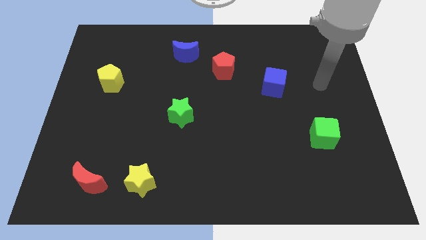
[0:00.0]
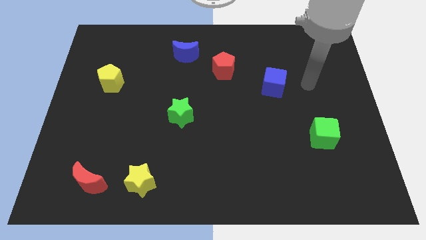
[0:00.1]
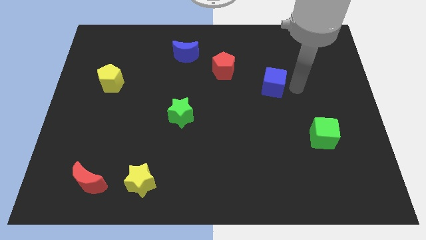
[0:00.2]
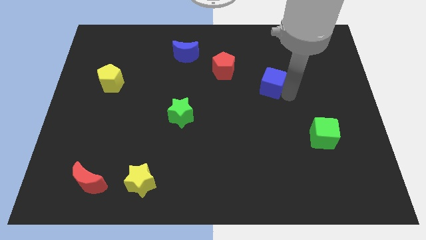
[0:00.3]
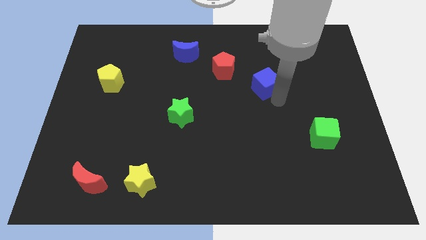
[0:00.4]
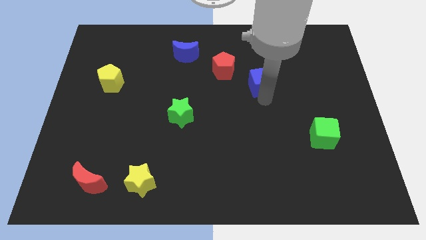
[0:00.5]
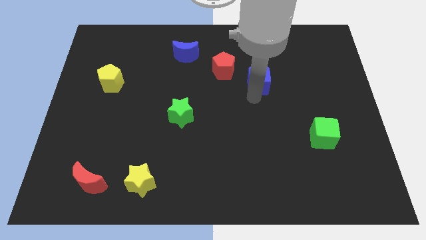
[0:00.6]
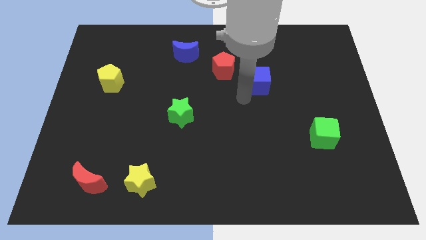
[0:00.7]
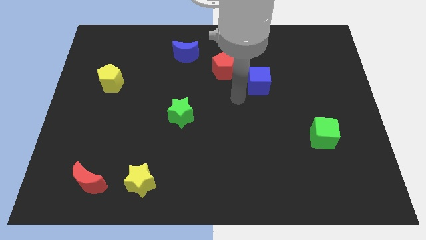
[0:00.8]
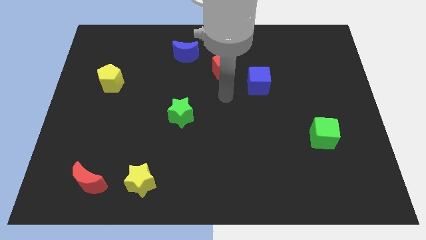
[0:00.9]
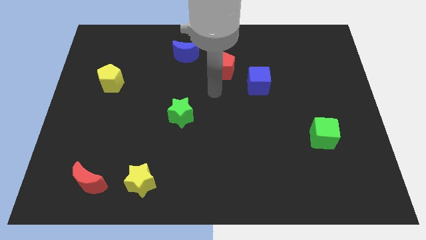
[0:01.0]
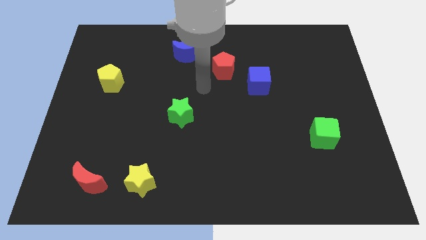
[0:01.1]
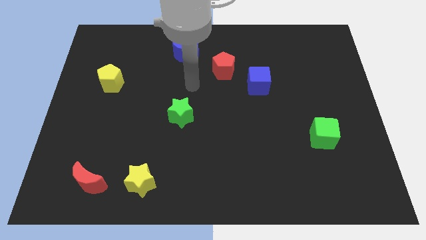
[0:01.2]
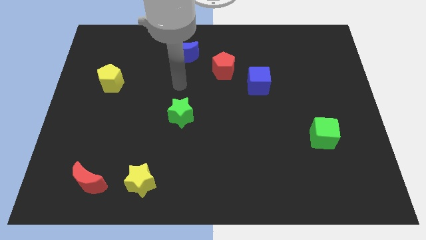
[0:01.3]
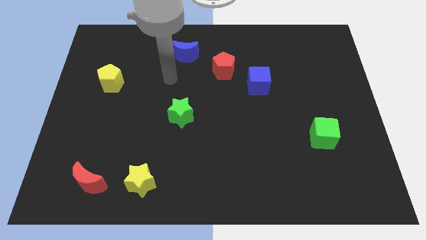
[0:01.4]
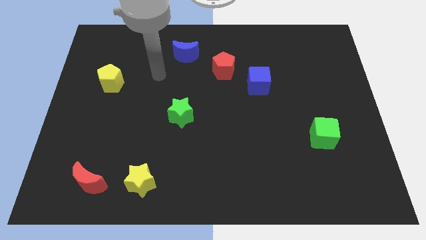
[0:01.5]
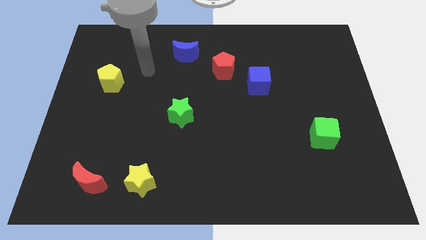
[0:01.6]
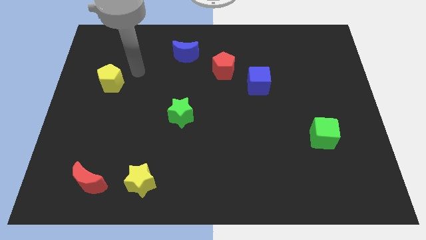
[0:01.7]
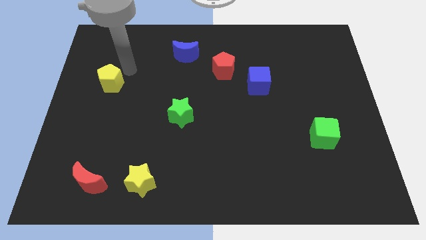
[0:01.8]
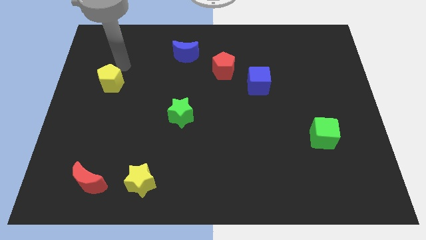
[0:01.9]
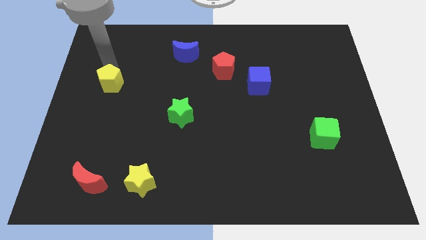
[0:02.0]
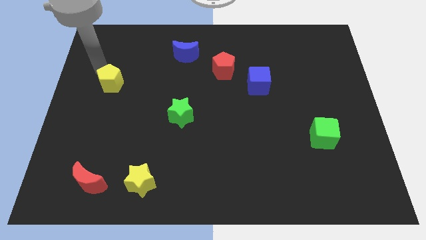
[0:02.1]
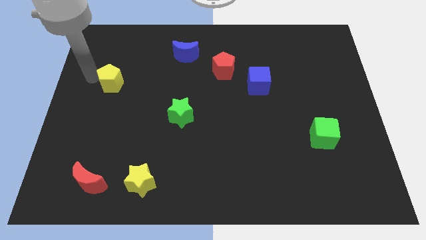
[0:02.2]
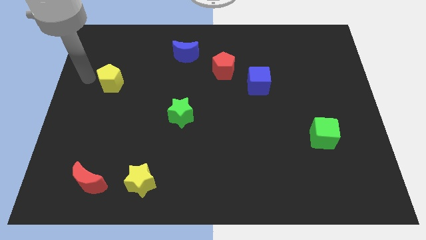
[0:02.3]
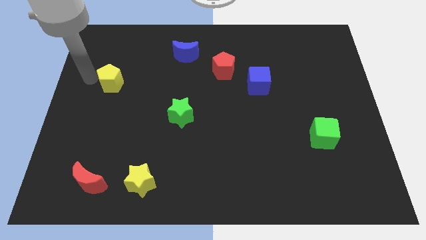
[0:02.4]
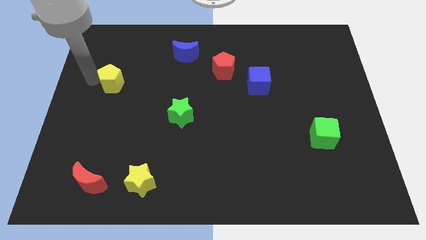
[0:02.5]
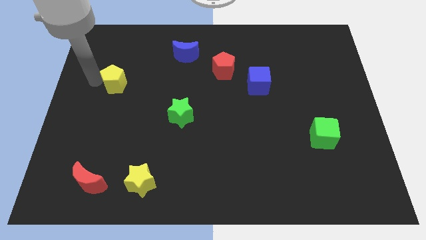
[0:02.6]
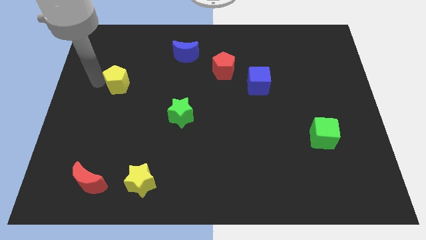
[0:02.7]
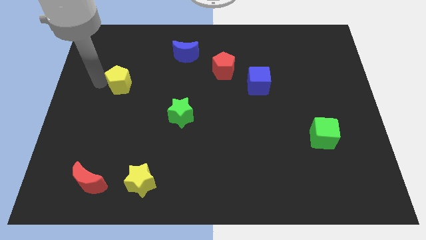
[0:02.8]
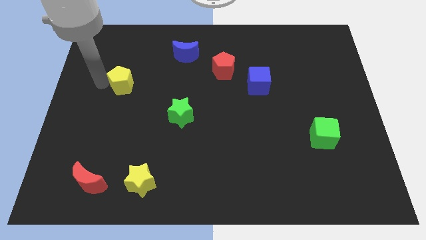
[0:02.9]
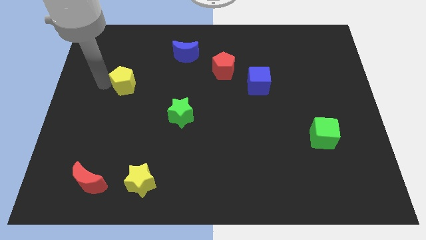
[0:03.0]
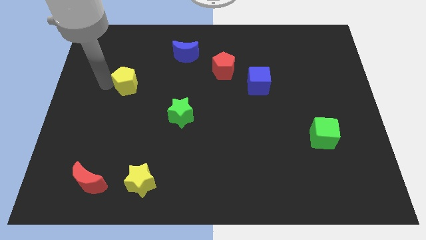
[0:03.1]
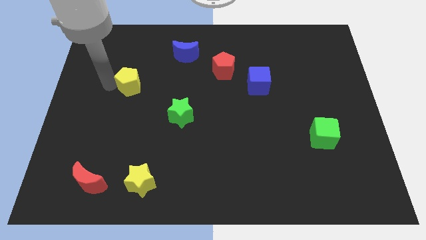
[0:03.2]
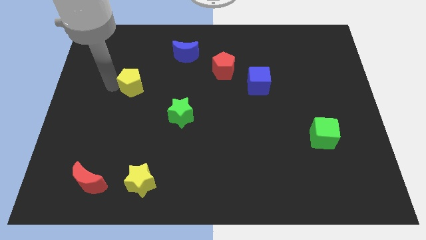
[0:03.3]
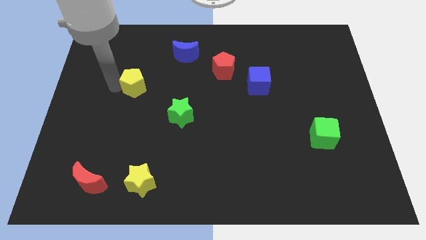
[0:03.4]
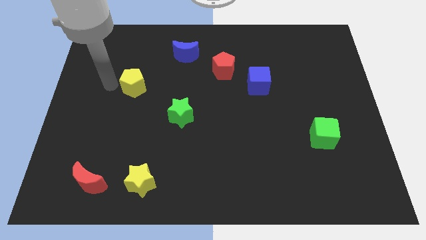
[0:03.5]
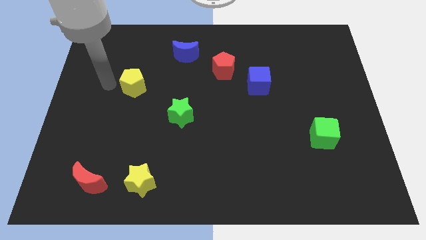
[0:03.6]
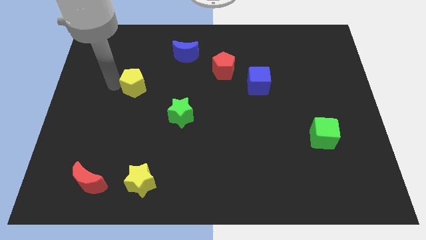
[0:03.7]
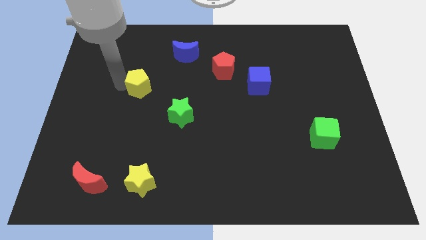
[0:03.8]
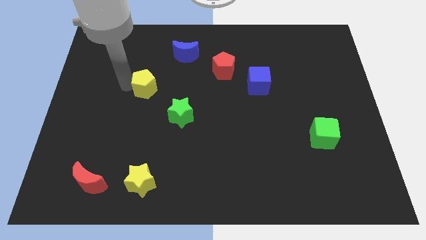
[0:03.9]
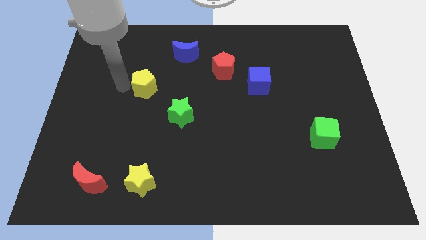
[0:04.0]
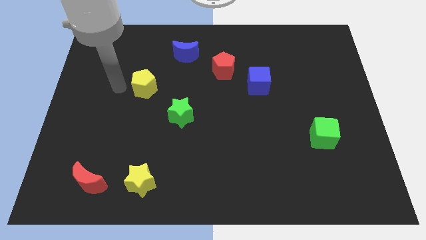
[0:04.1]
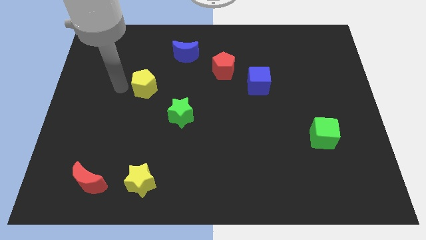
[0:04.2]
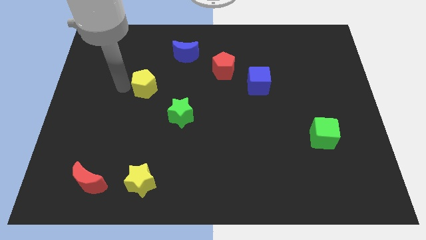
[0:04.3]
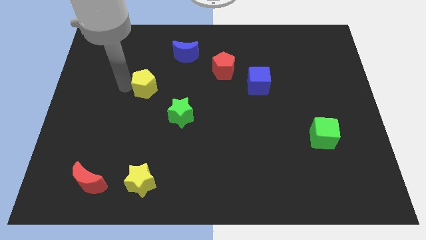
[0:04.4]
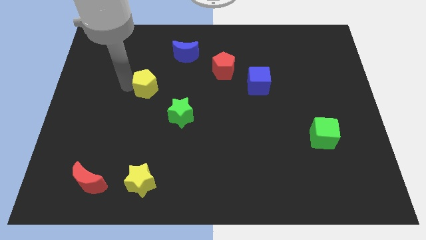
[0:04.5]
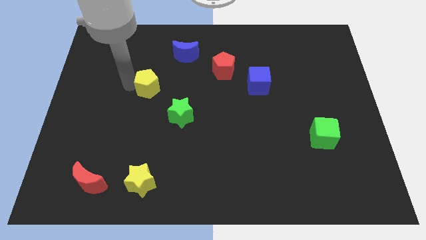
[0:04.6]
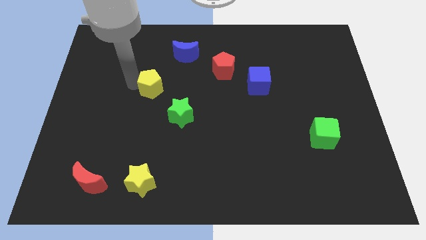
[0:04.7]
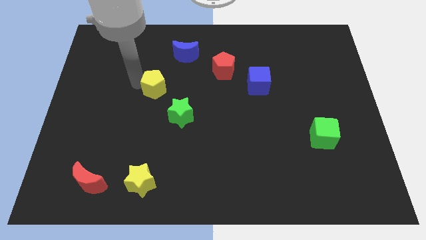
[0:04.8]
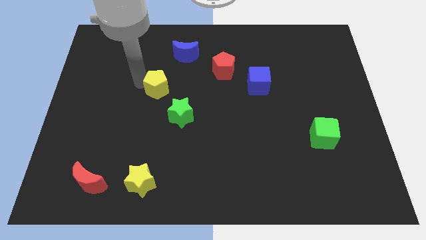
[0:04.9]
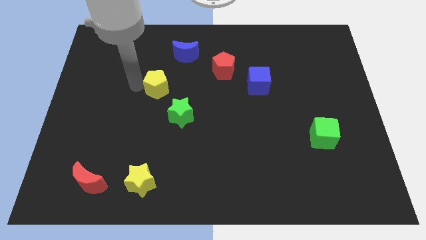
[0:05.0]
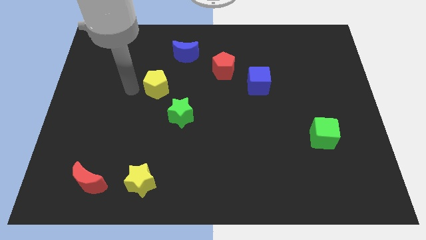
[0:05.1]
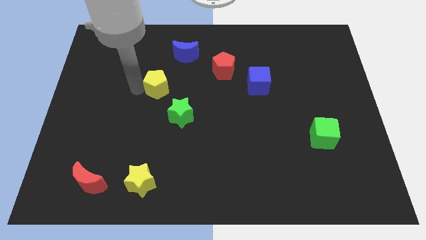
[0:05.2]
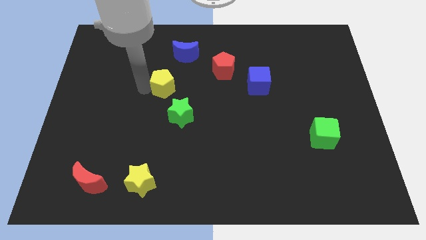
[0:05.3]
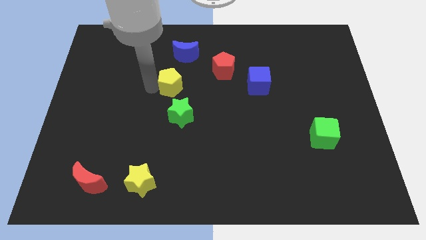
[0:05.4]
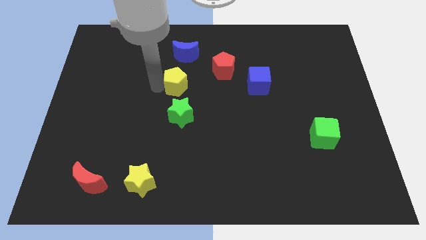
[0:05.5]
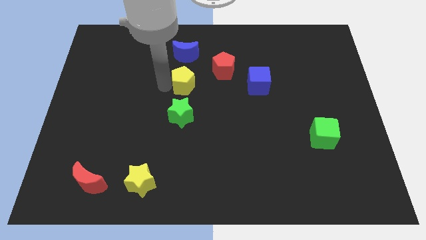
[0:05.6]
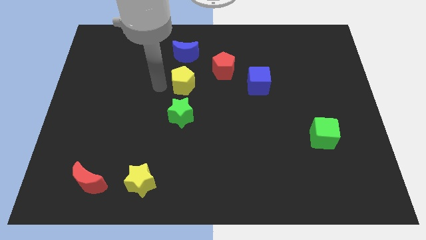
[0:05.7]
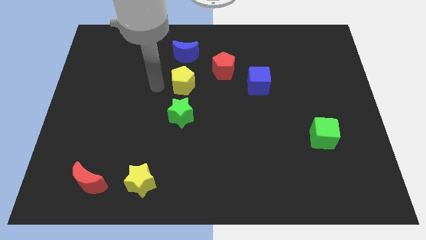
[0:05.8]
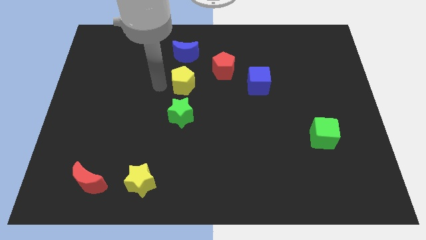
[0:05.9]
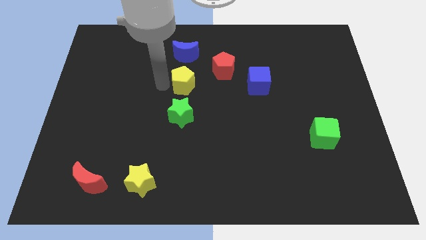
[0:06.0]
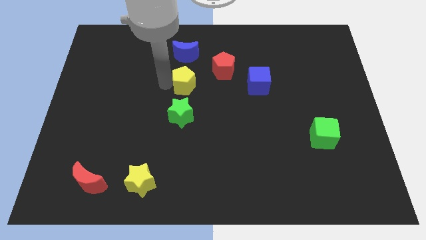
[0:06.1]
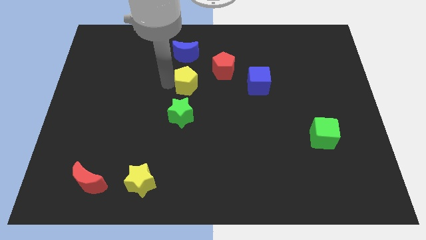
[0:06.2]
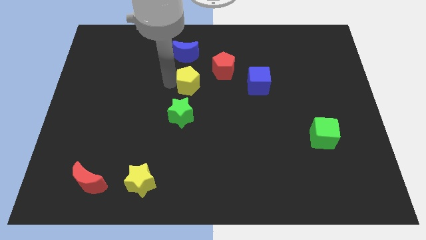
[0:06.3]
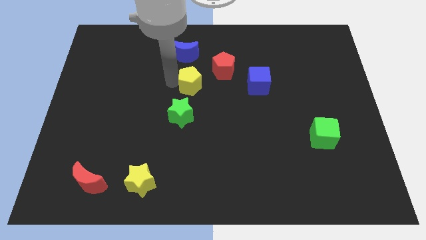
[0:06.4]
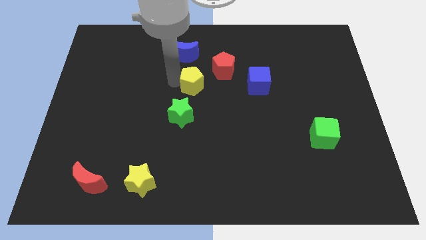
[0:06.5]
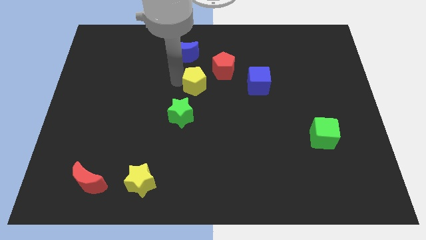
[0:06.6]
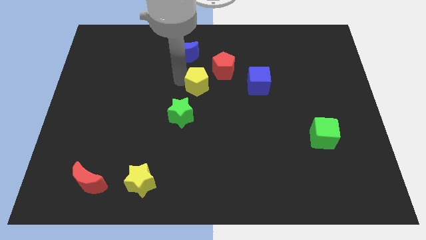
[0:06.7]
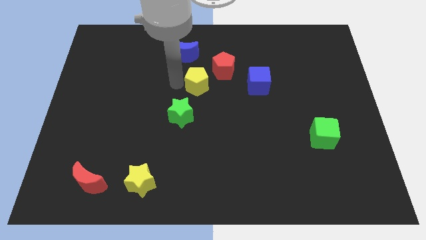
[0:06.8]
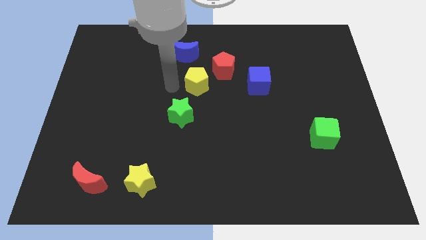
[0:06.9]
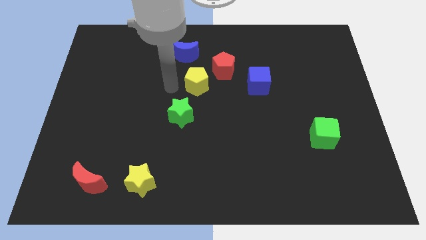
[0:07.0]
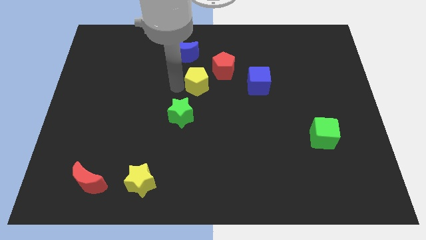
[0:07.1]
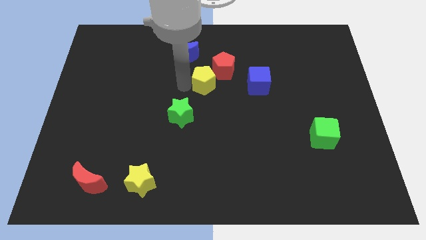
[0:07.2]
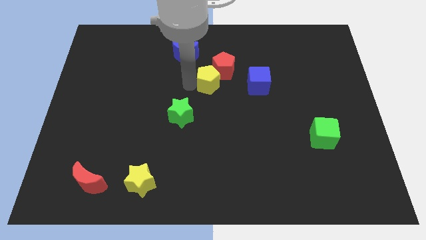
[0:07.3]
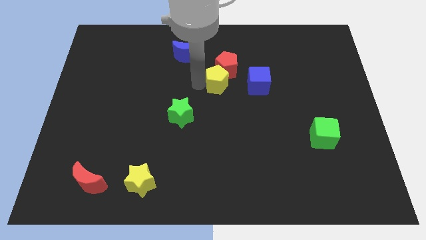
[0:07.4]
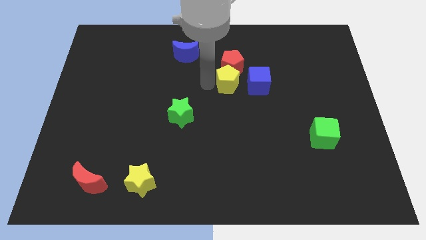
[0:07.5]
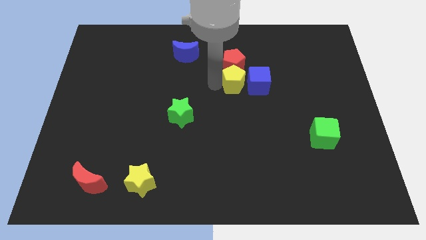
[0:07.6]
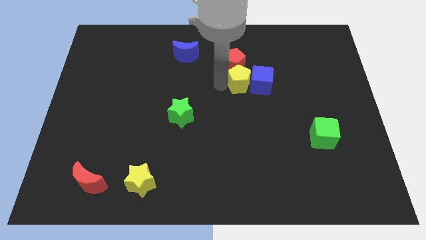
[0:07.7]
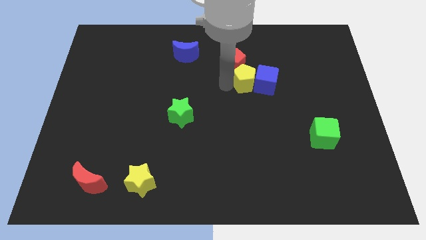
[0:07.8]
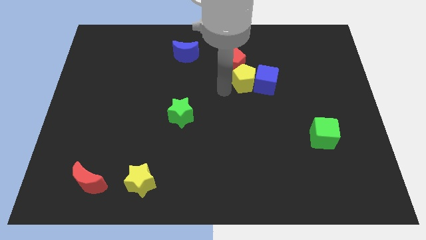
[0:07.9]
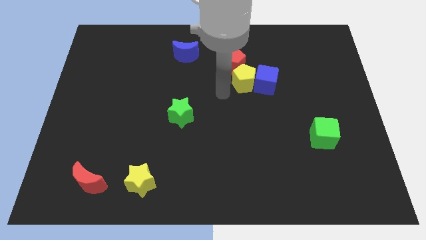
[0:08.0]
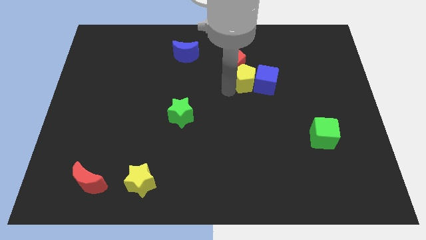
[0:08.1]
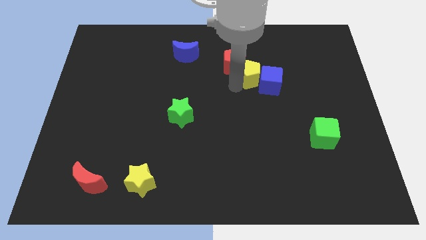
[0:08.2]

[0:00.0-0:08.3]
slide the yellow pentagon right of the red pentagon

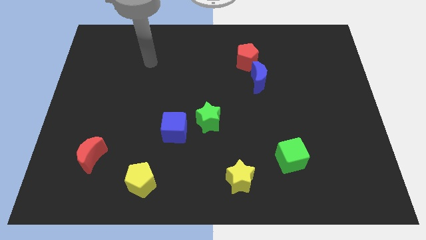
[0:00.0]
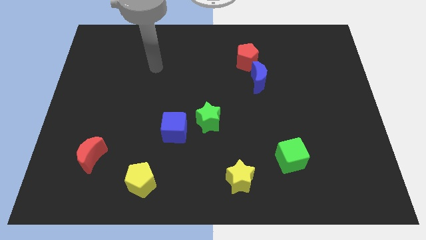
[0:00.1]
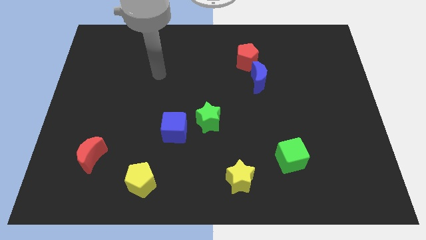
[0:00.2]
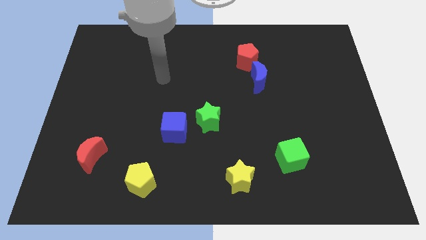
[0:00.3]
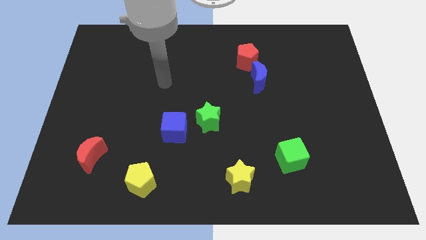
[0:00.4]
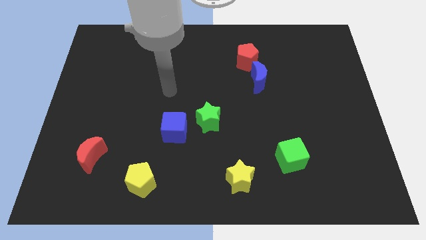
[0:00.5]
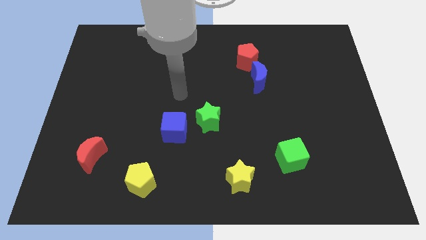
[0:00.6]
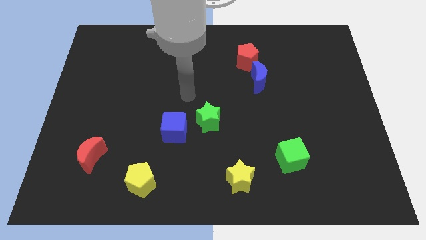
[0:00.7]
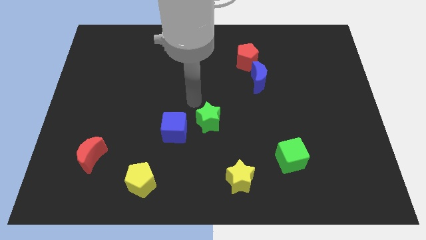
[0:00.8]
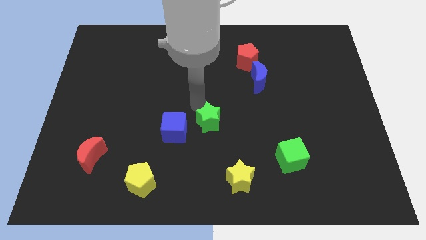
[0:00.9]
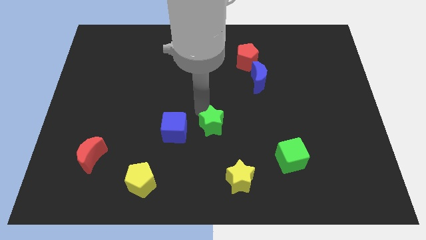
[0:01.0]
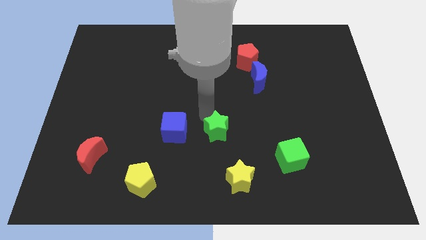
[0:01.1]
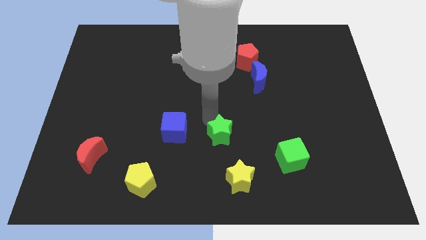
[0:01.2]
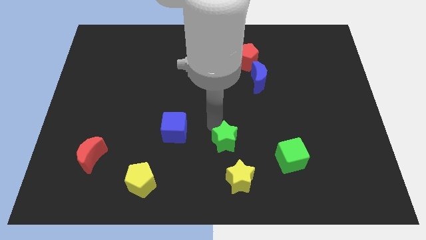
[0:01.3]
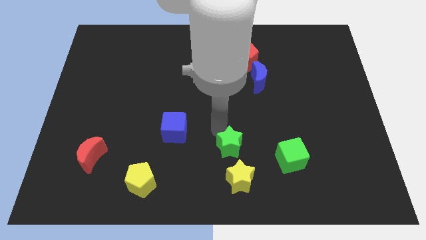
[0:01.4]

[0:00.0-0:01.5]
move the green star left of the green cube
